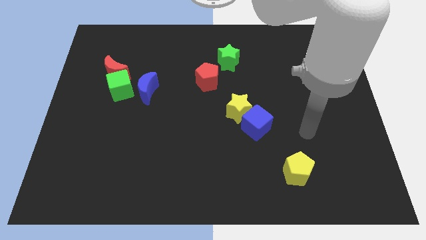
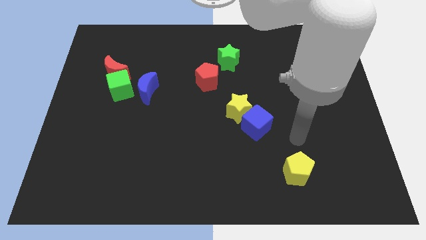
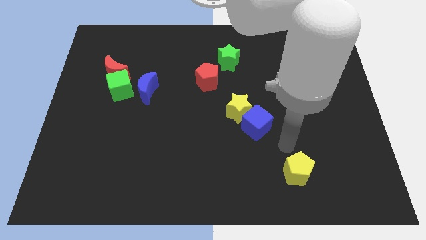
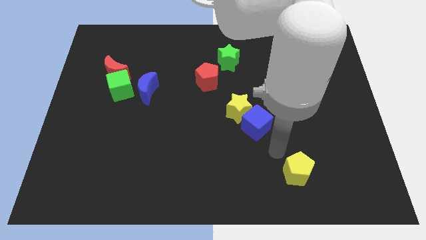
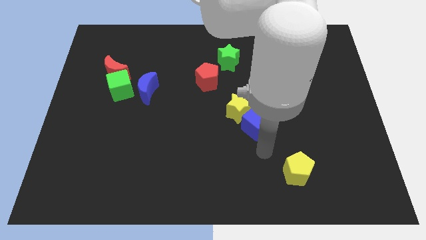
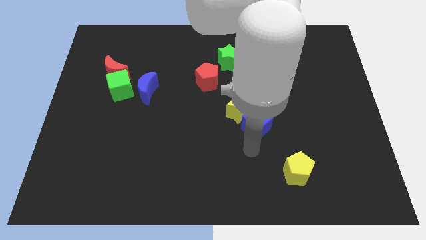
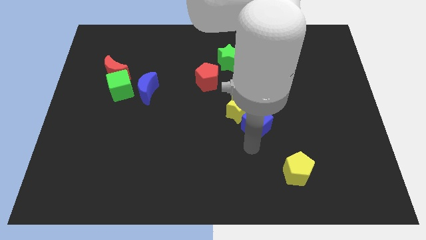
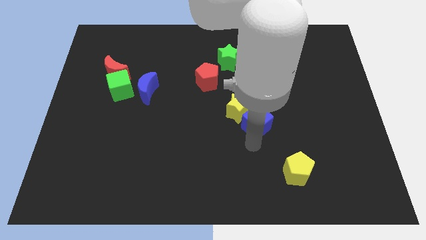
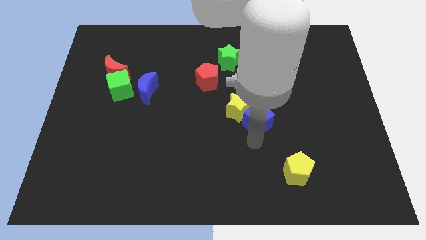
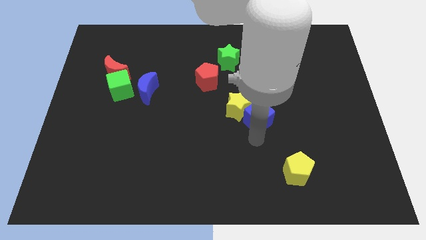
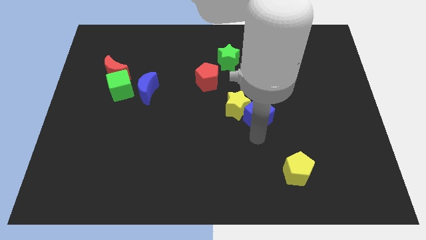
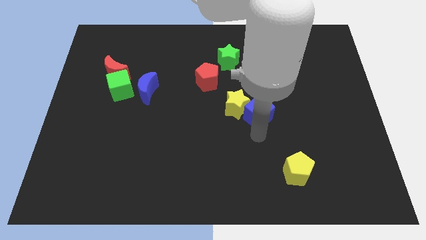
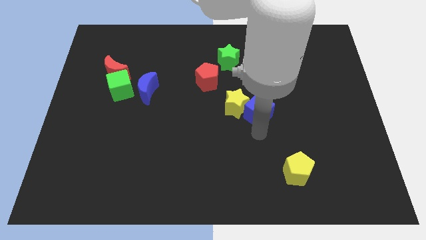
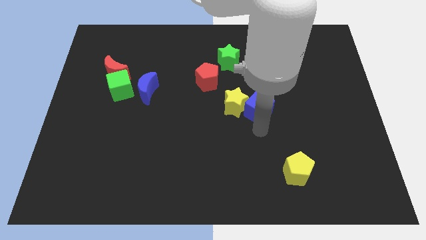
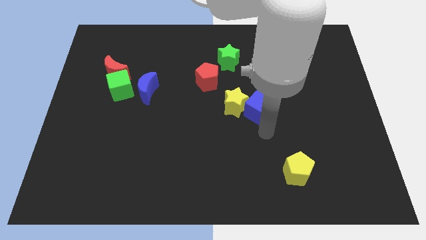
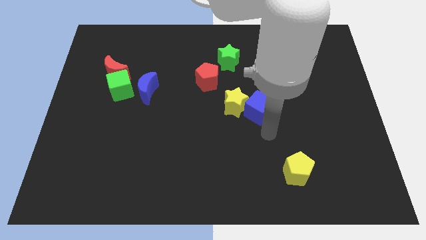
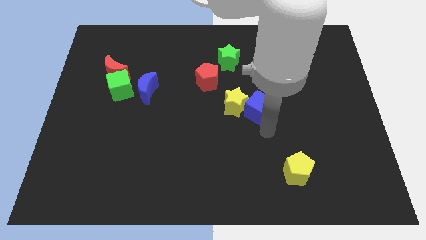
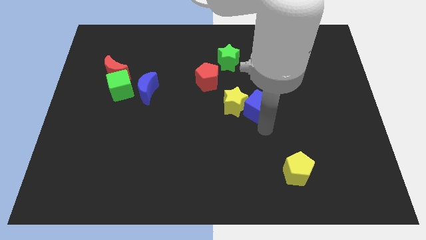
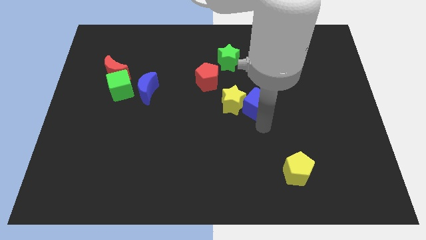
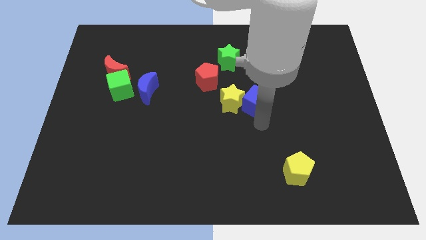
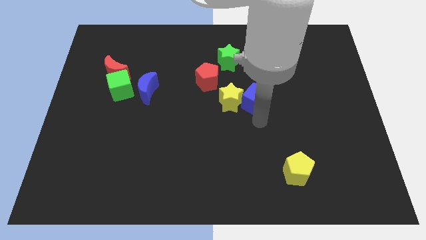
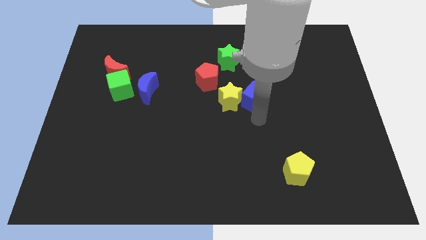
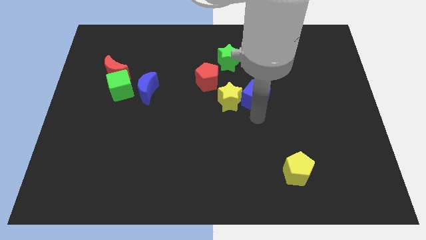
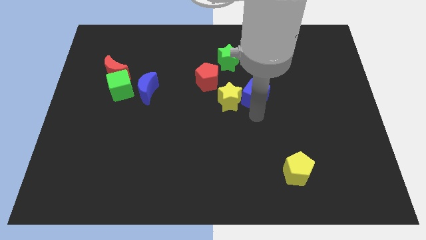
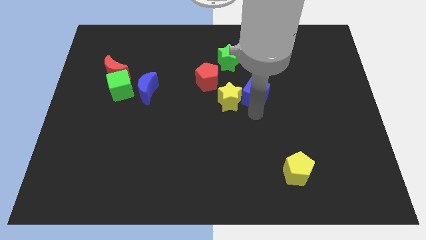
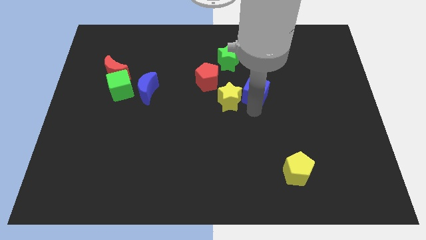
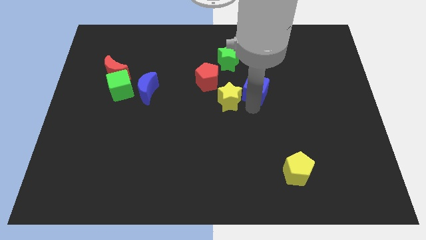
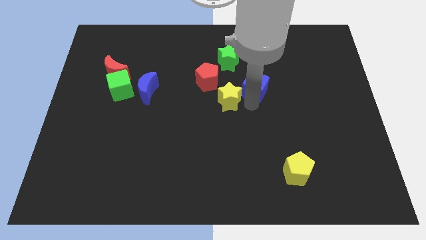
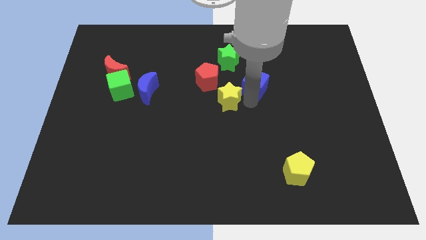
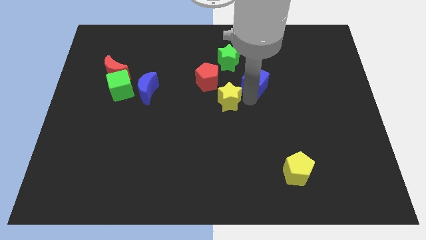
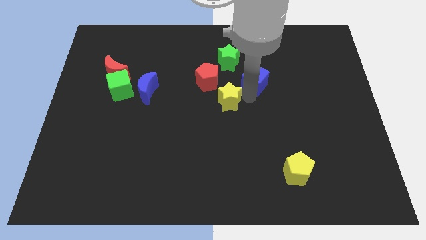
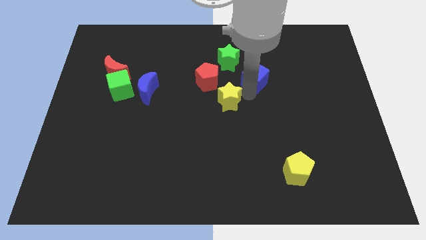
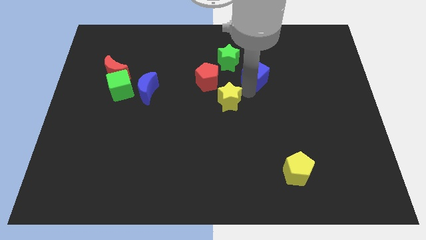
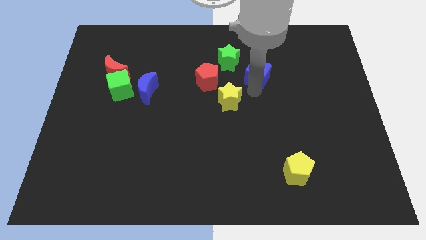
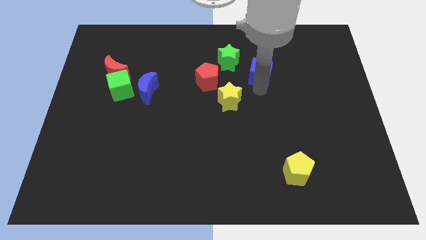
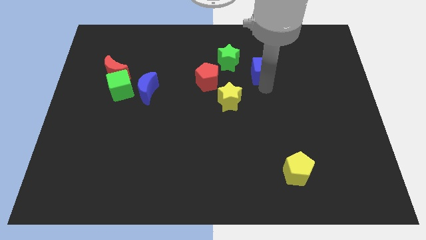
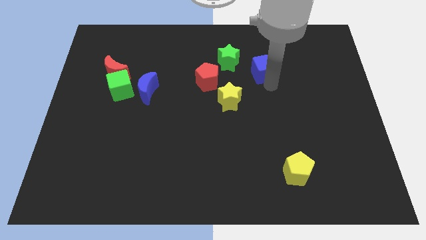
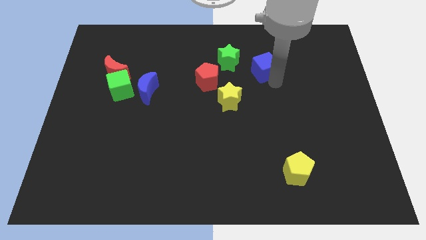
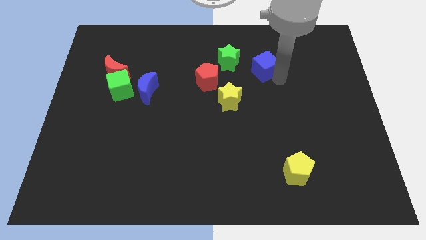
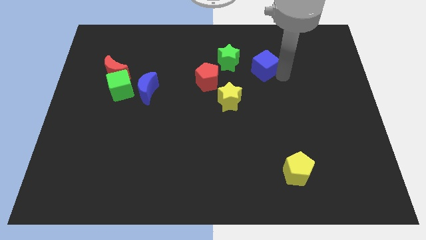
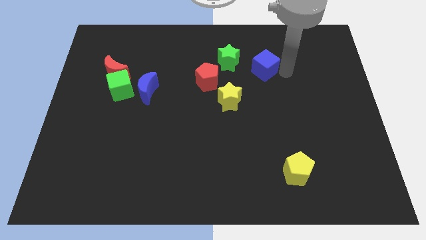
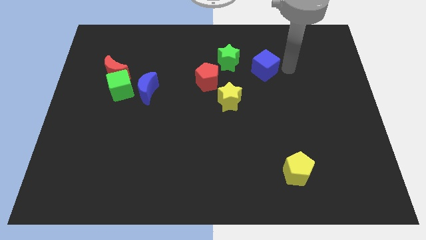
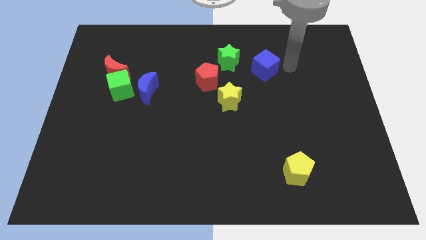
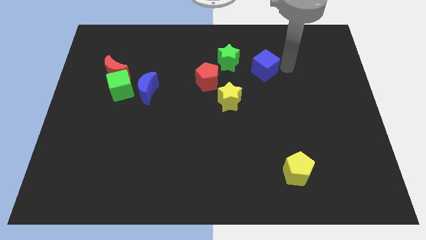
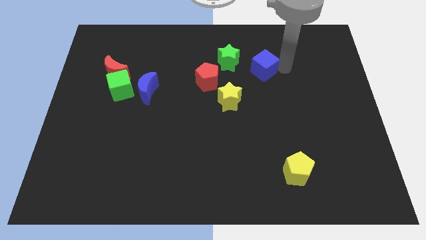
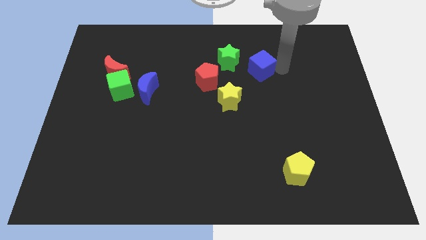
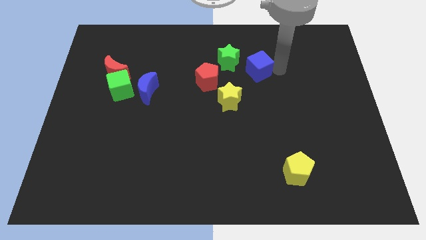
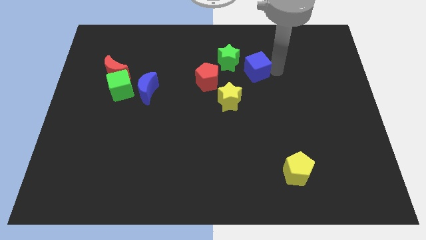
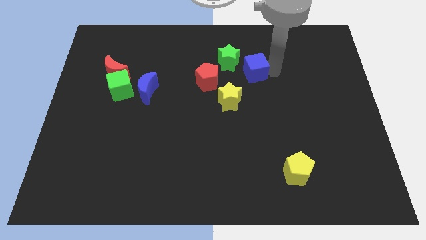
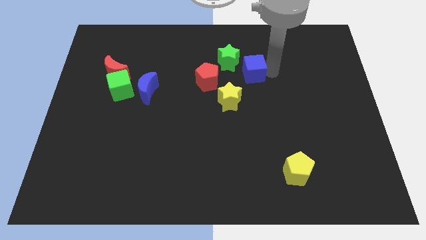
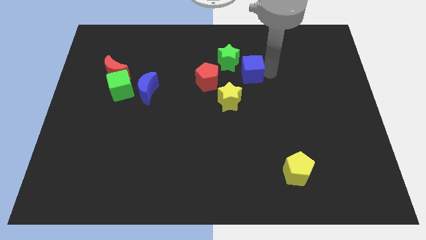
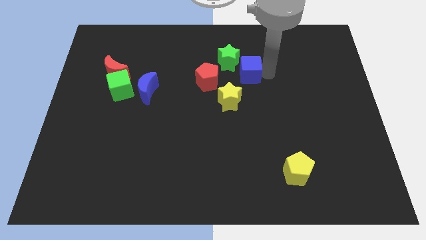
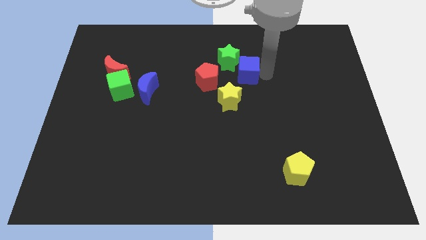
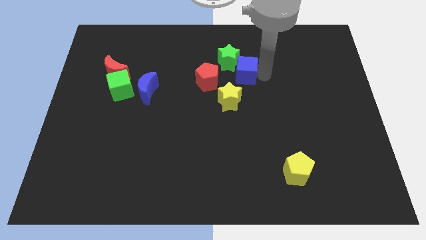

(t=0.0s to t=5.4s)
put the blue cube towards the green star

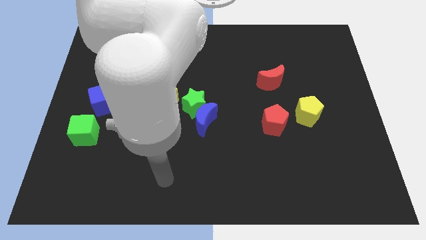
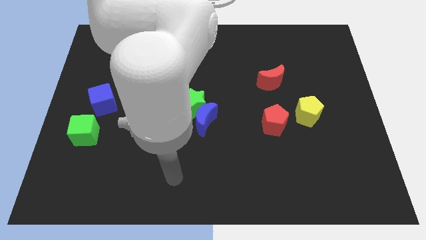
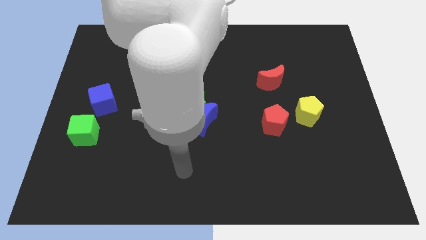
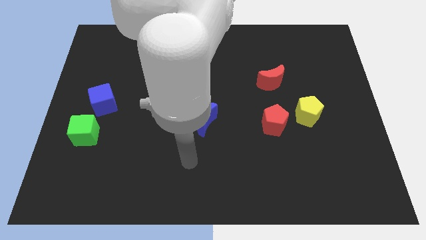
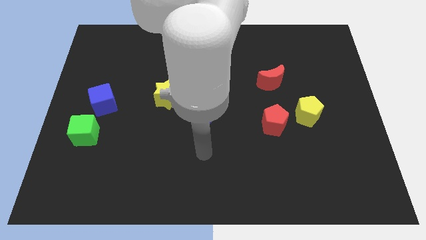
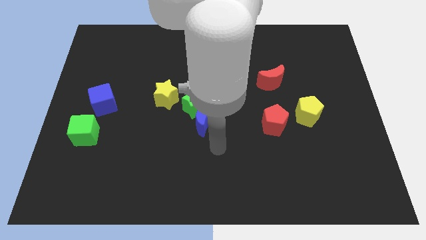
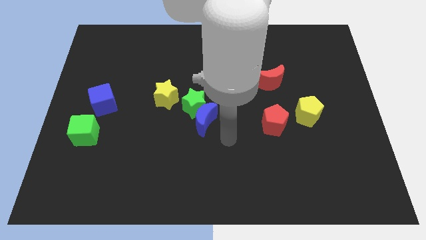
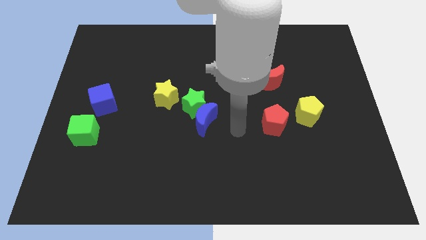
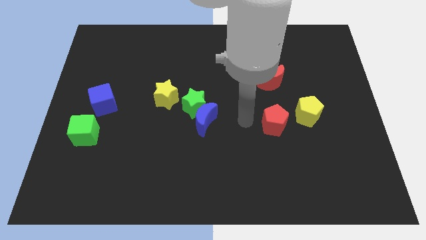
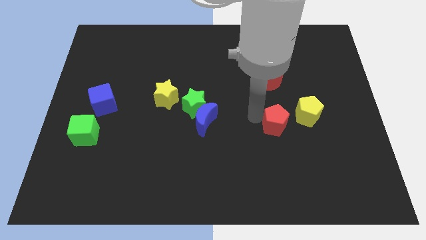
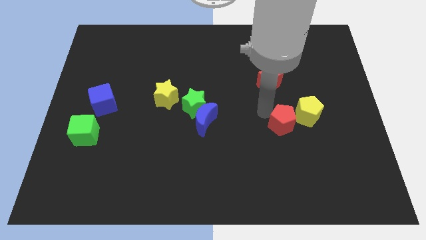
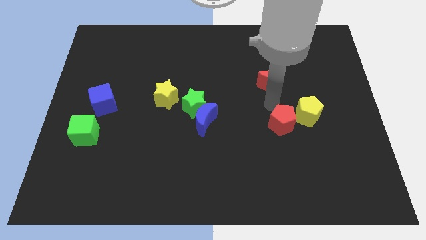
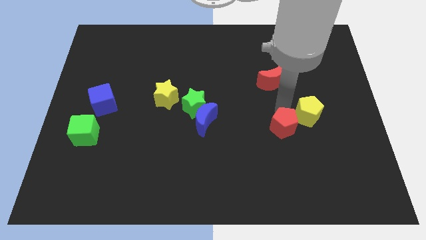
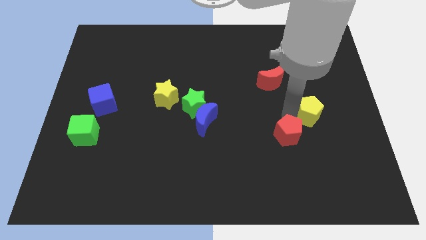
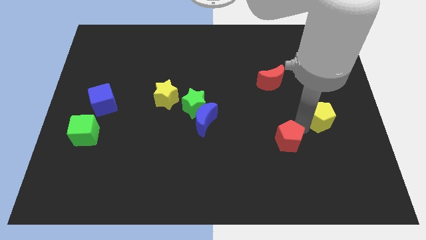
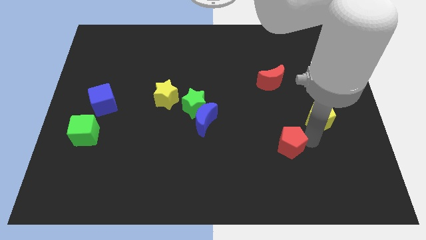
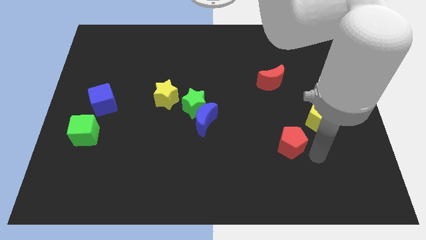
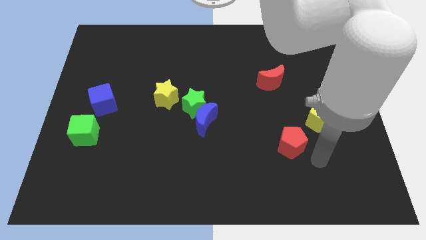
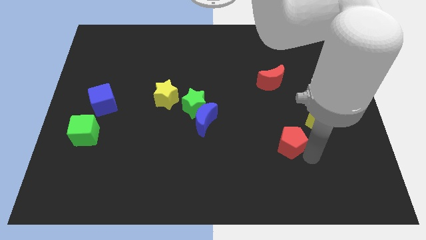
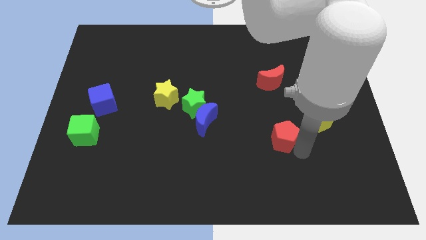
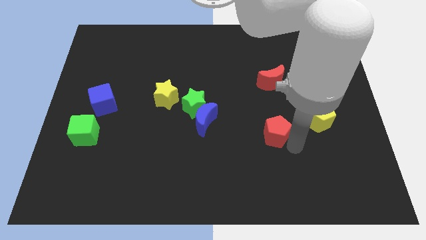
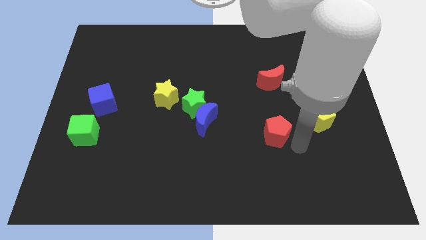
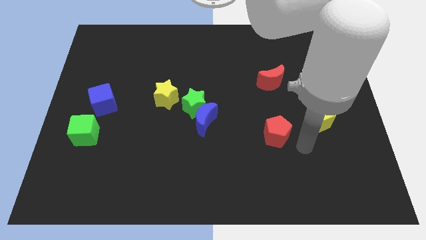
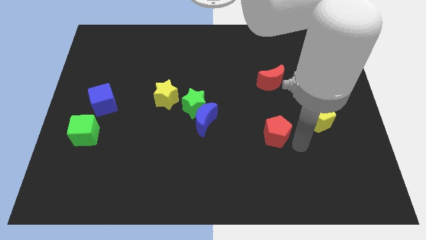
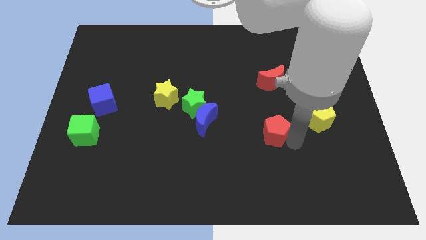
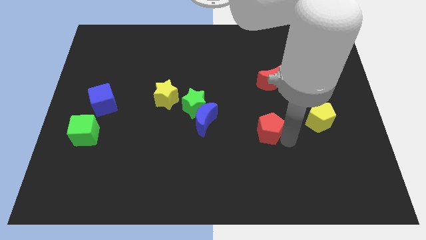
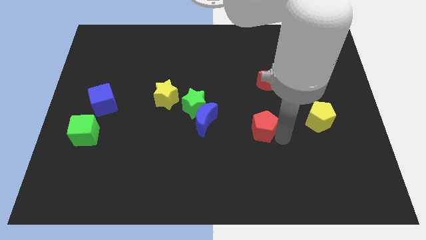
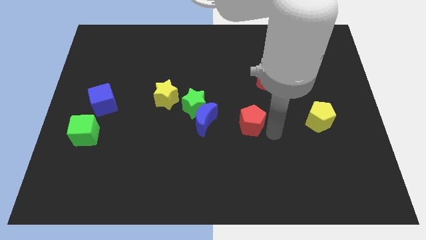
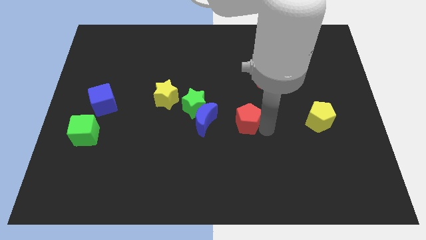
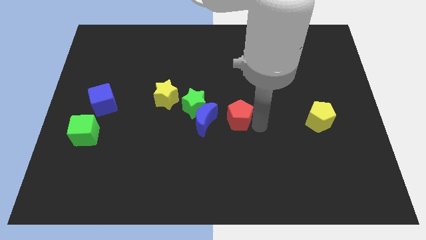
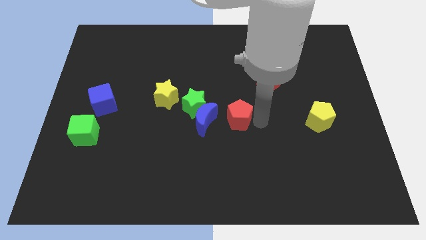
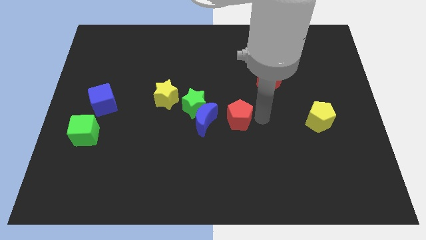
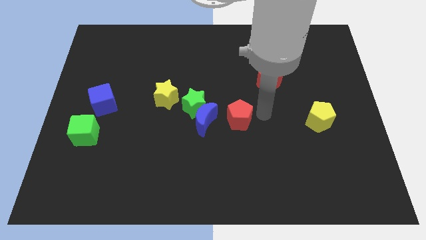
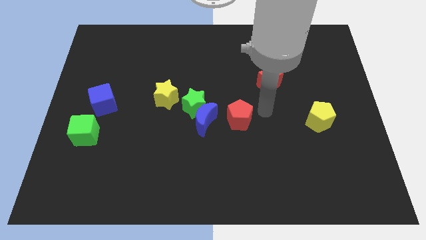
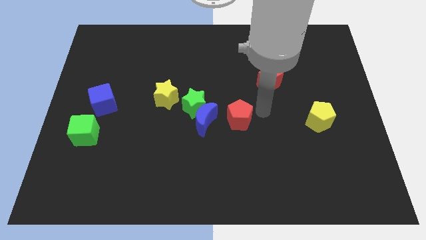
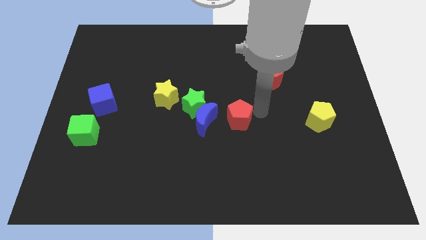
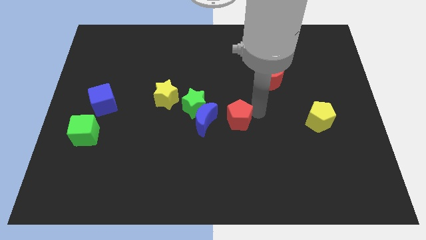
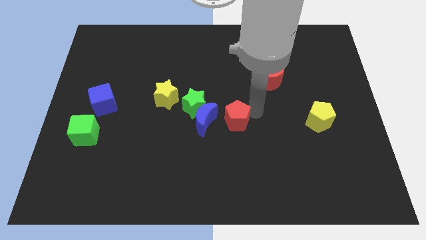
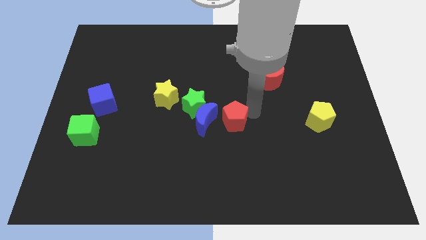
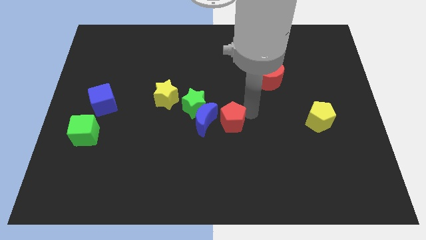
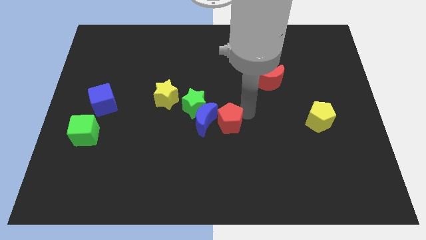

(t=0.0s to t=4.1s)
put the red pentagon close to the blue moon
